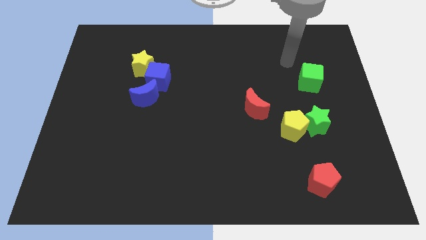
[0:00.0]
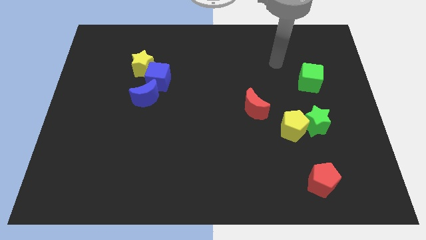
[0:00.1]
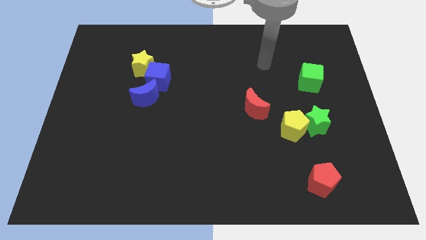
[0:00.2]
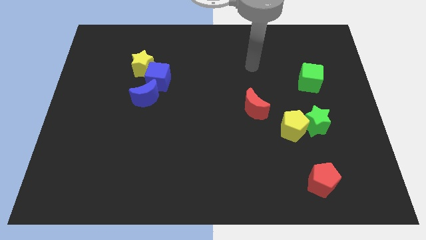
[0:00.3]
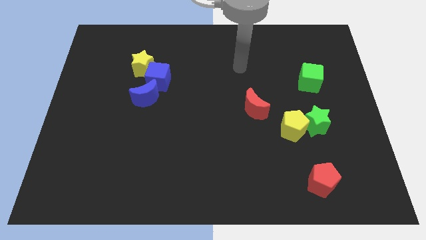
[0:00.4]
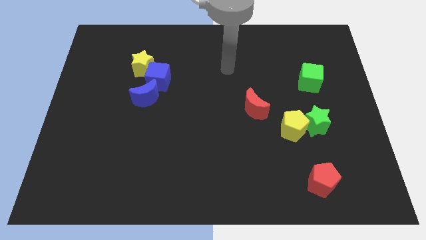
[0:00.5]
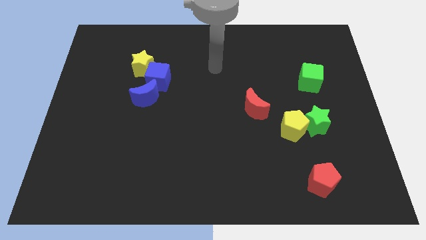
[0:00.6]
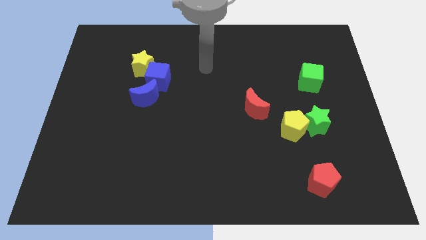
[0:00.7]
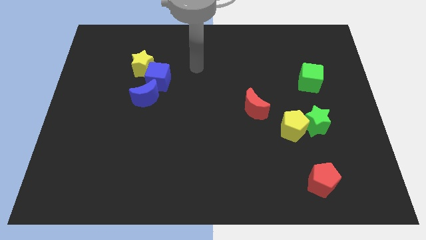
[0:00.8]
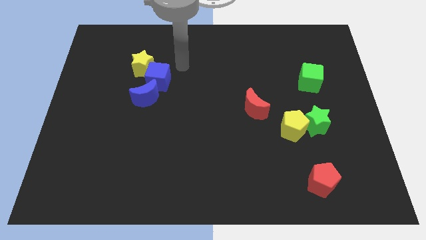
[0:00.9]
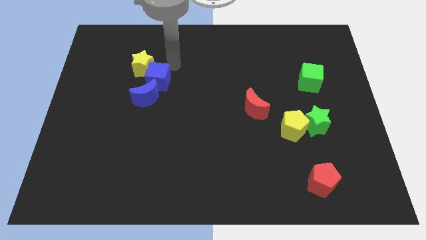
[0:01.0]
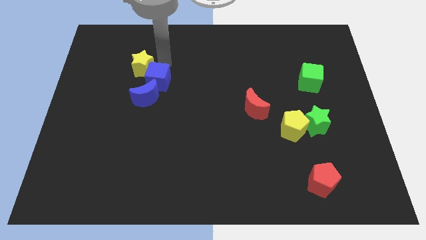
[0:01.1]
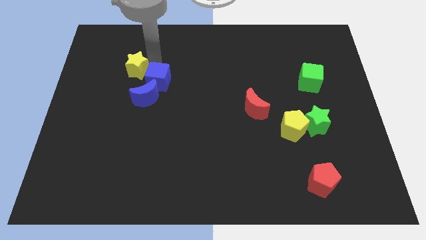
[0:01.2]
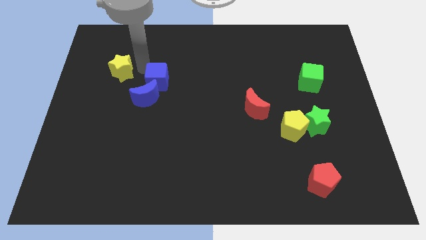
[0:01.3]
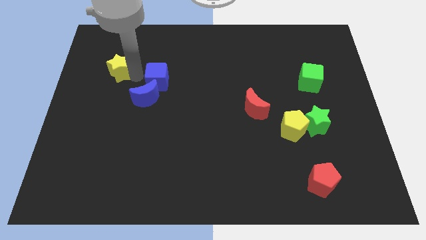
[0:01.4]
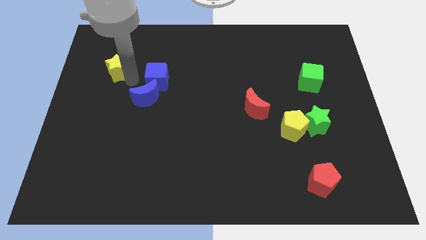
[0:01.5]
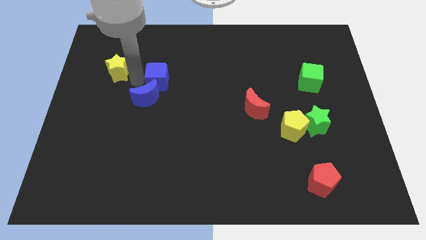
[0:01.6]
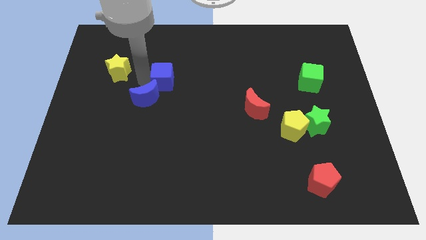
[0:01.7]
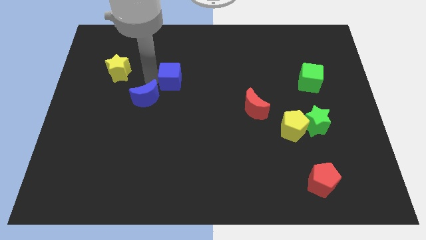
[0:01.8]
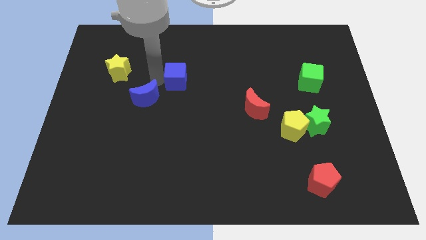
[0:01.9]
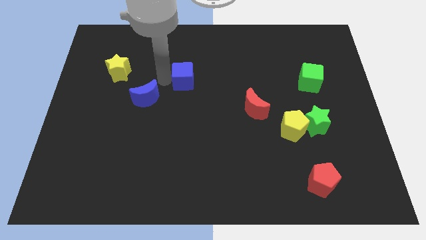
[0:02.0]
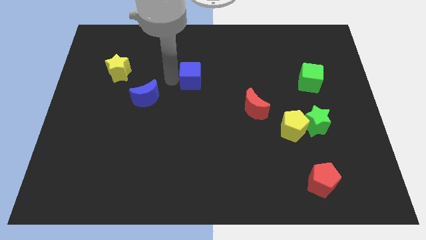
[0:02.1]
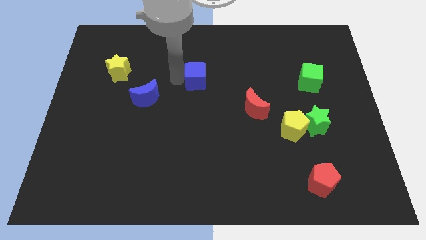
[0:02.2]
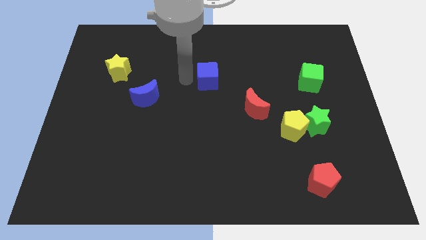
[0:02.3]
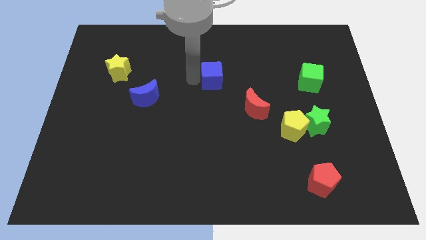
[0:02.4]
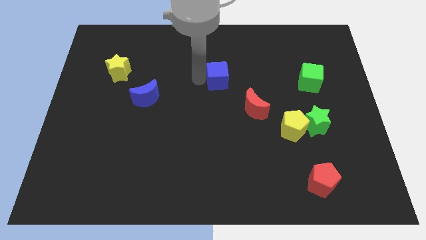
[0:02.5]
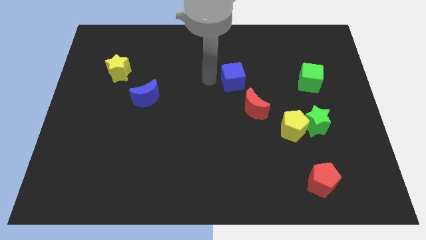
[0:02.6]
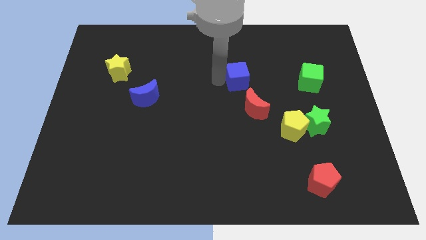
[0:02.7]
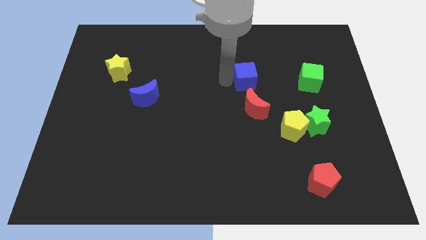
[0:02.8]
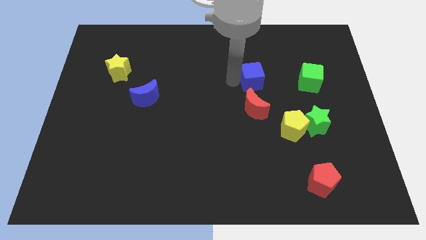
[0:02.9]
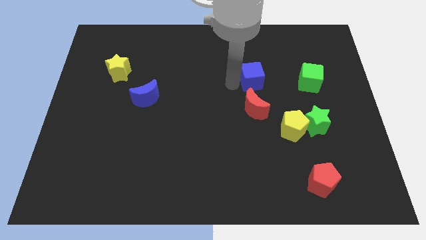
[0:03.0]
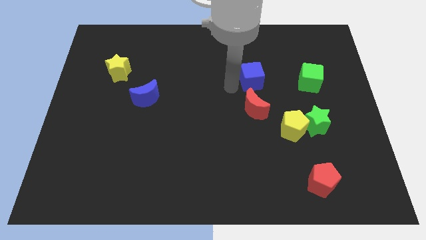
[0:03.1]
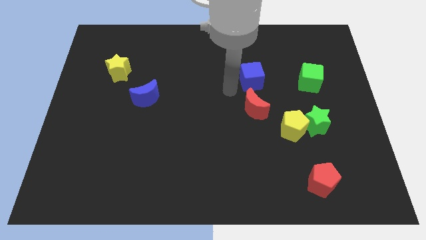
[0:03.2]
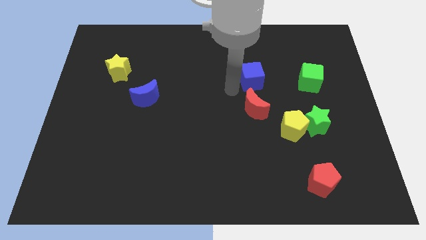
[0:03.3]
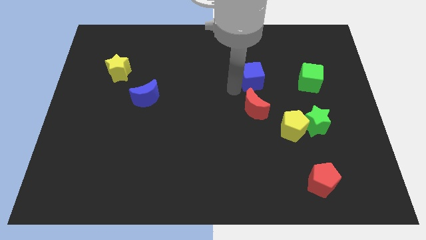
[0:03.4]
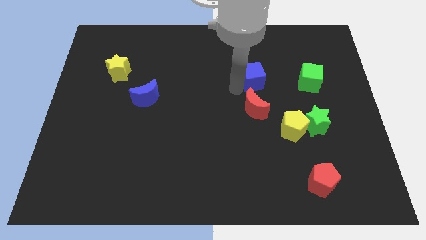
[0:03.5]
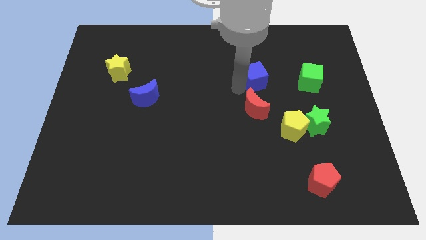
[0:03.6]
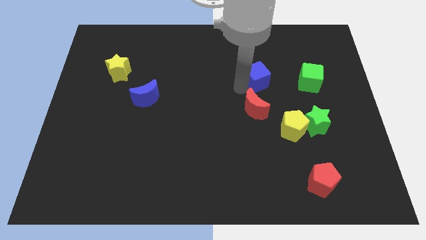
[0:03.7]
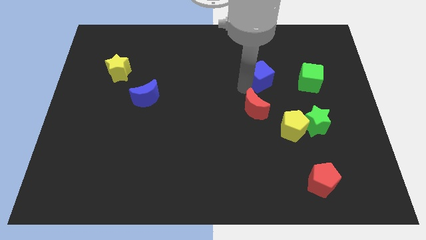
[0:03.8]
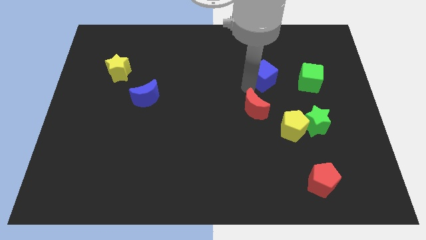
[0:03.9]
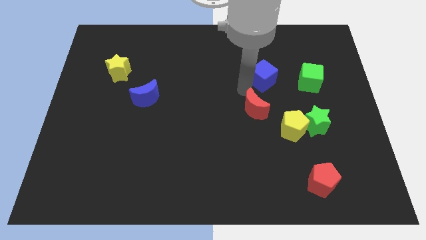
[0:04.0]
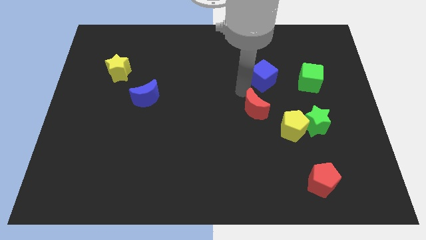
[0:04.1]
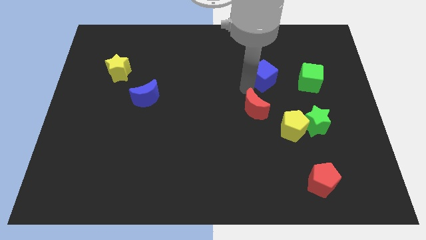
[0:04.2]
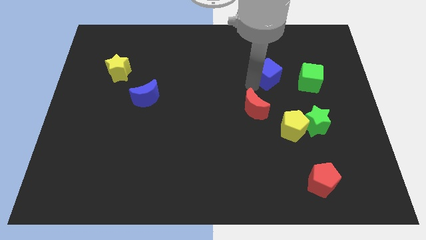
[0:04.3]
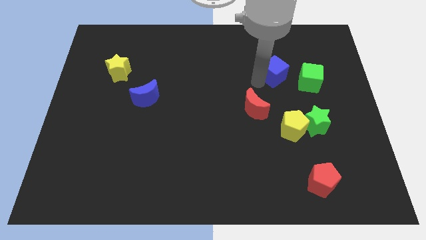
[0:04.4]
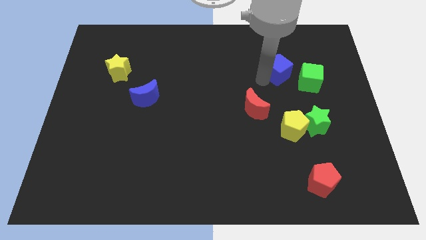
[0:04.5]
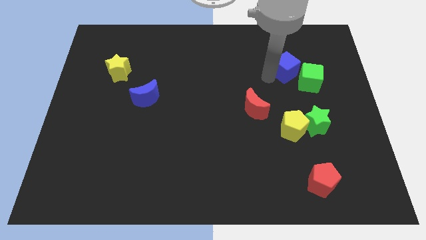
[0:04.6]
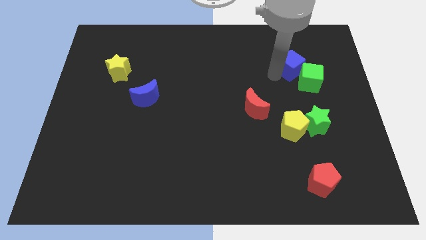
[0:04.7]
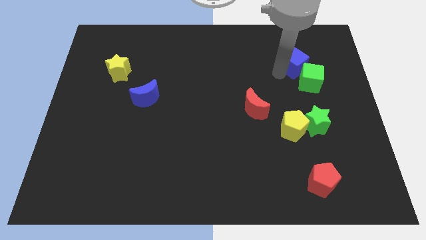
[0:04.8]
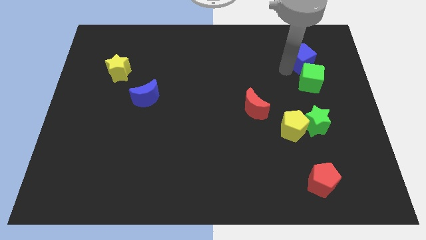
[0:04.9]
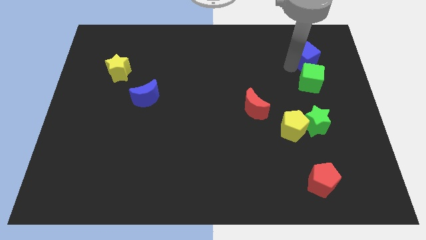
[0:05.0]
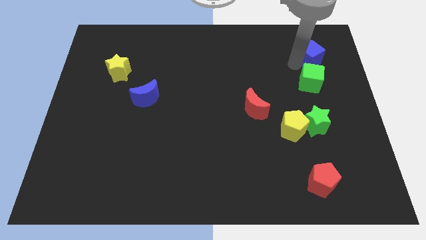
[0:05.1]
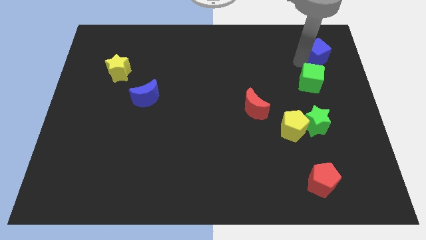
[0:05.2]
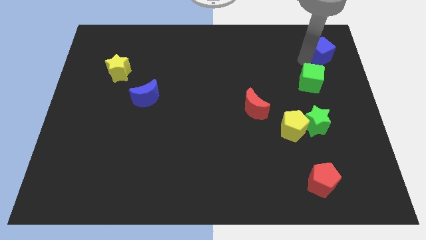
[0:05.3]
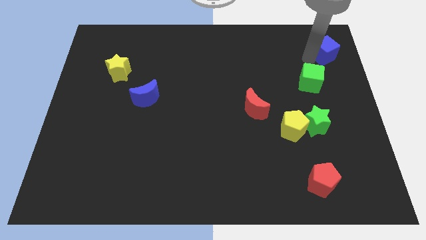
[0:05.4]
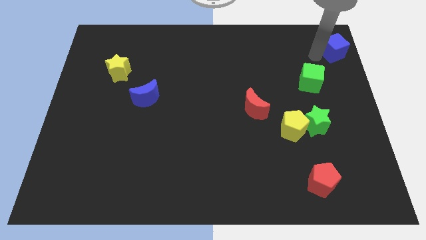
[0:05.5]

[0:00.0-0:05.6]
slide the blue cube to the top right

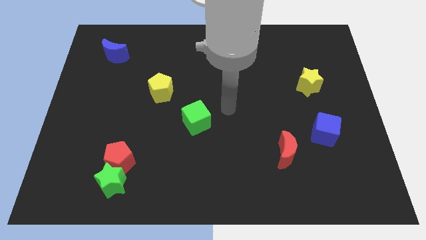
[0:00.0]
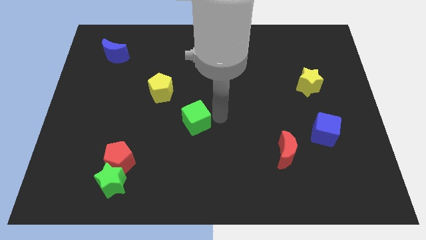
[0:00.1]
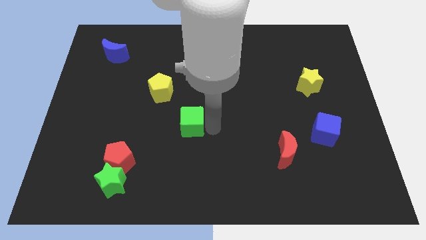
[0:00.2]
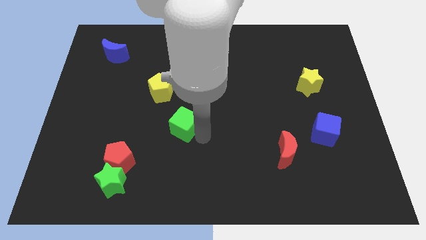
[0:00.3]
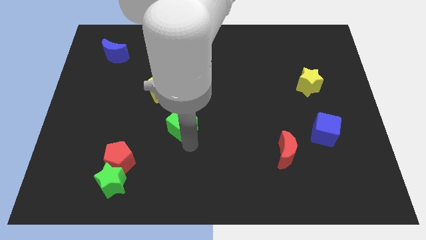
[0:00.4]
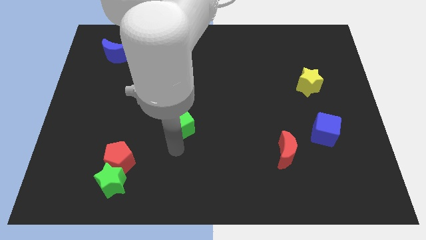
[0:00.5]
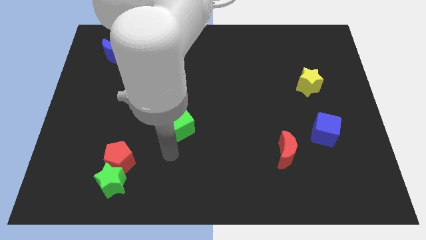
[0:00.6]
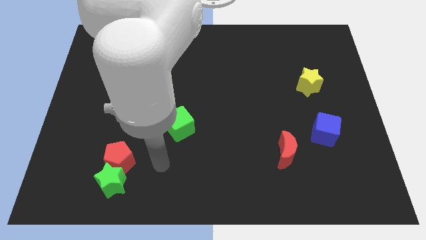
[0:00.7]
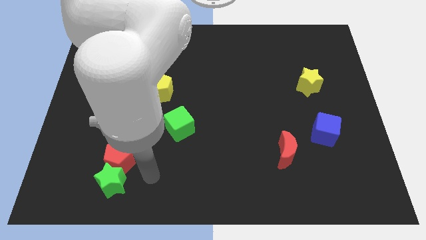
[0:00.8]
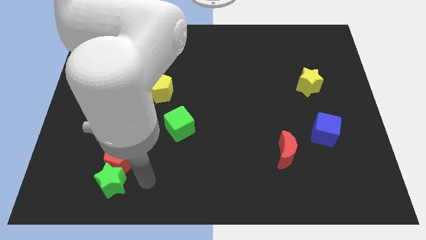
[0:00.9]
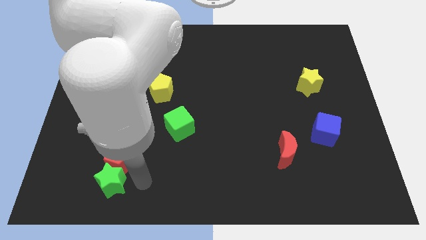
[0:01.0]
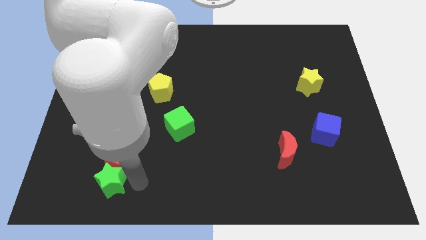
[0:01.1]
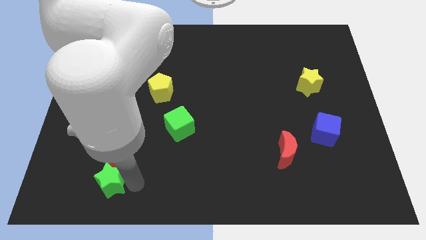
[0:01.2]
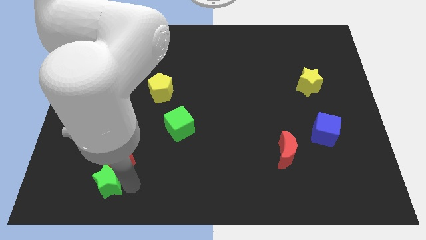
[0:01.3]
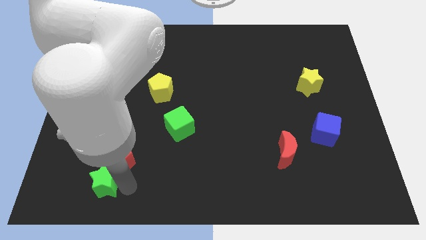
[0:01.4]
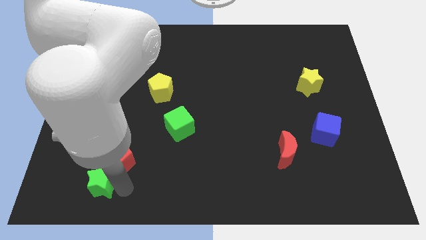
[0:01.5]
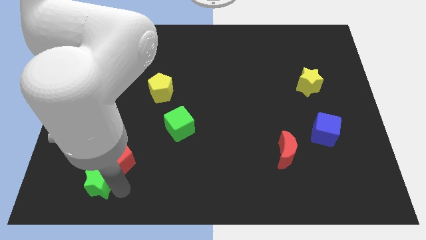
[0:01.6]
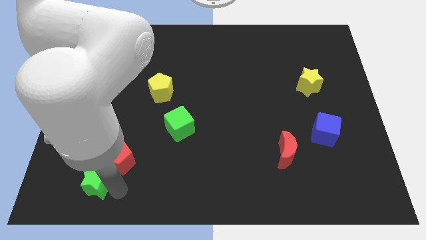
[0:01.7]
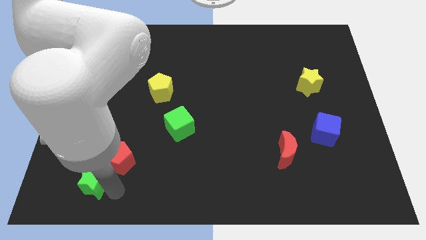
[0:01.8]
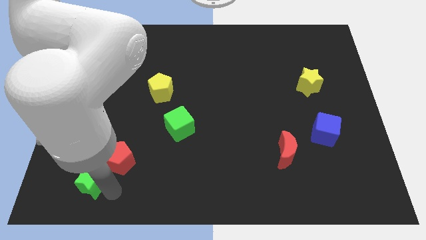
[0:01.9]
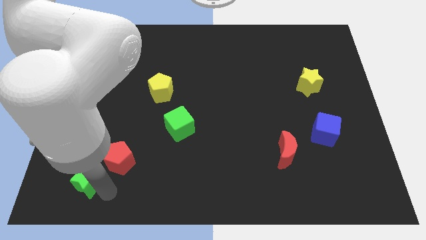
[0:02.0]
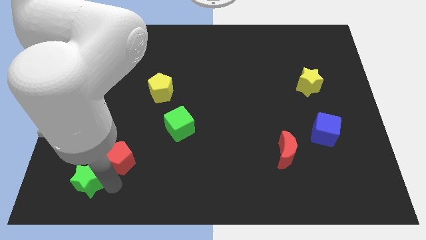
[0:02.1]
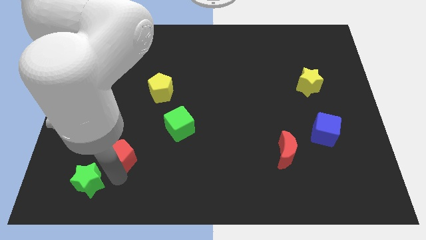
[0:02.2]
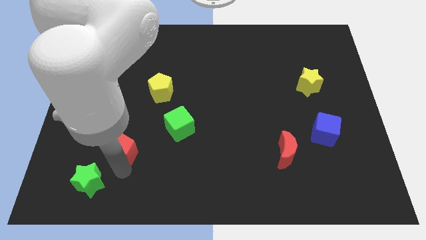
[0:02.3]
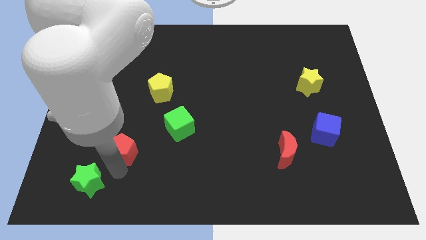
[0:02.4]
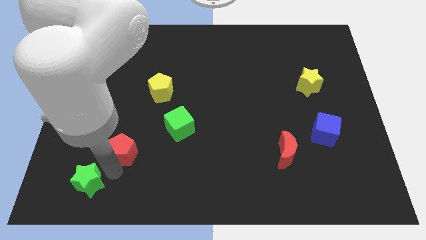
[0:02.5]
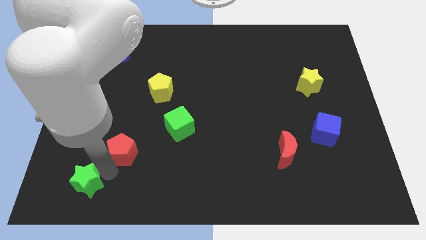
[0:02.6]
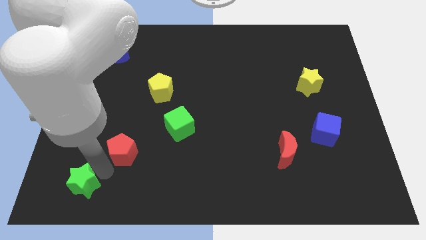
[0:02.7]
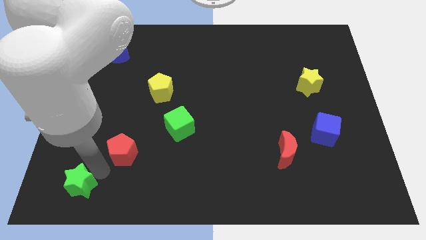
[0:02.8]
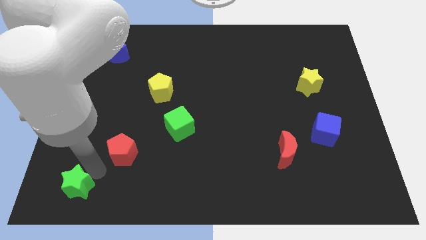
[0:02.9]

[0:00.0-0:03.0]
push the green star to the bottom left
